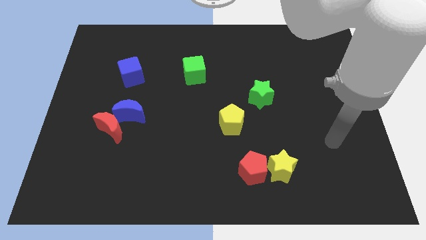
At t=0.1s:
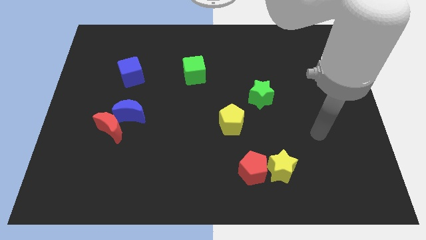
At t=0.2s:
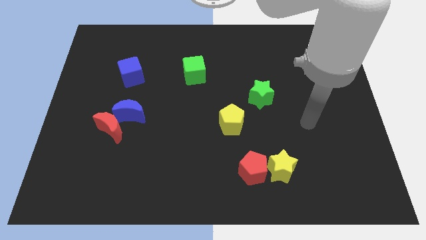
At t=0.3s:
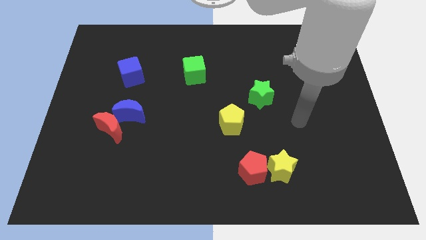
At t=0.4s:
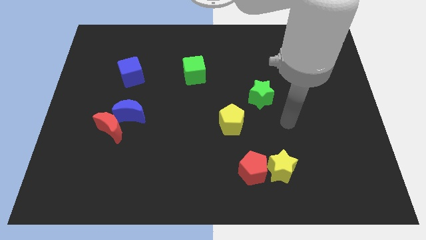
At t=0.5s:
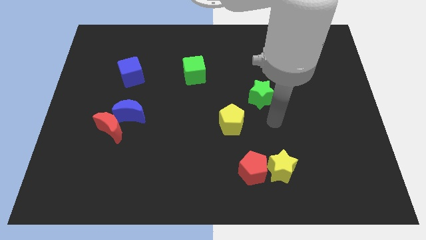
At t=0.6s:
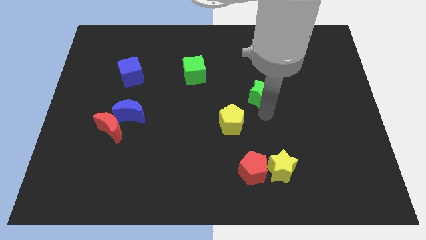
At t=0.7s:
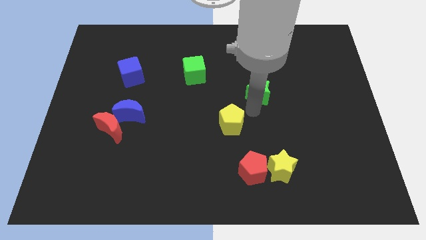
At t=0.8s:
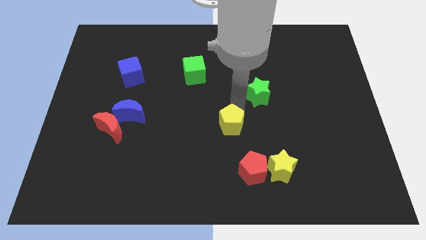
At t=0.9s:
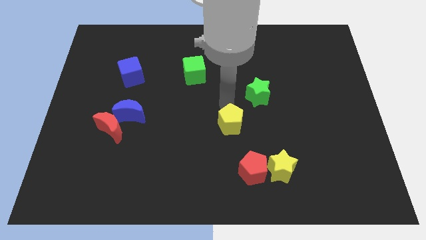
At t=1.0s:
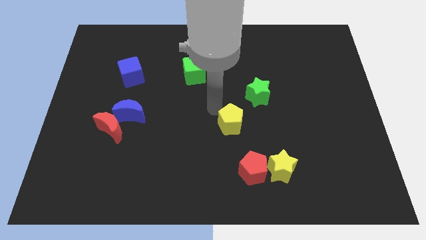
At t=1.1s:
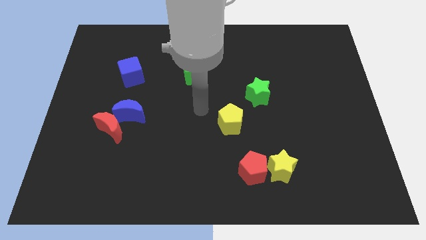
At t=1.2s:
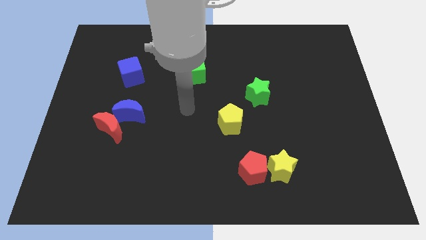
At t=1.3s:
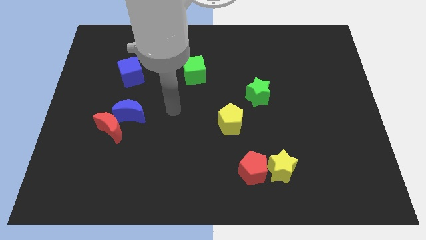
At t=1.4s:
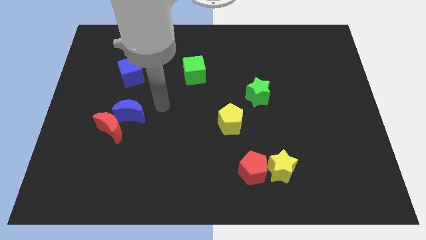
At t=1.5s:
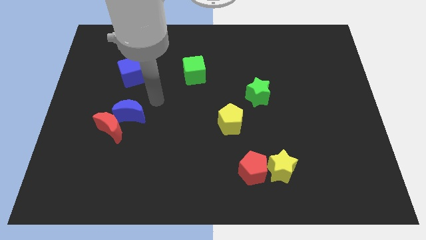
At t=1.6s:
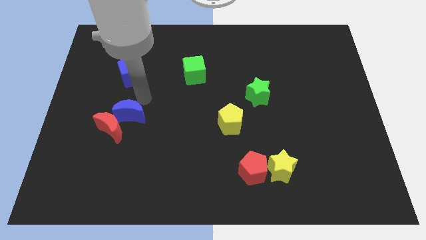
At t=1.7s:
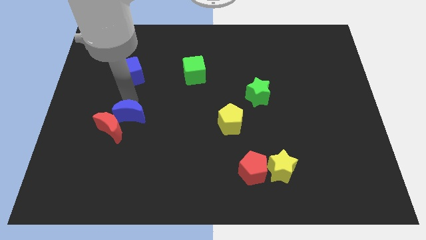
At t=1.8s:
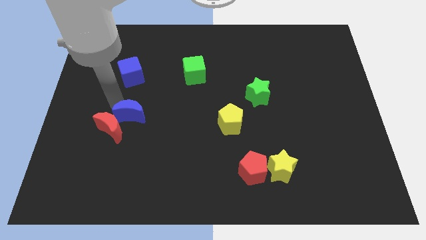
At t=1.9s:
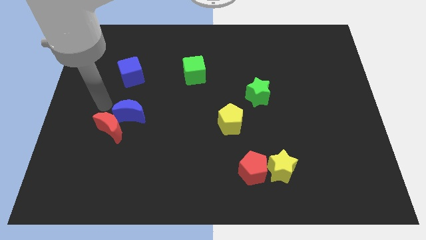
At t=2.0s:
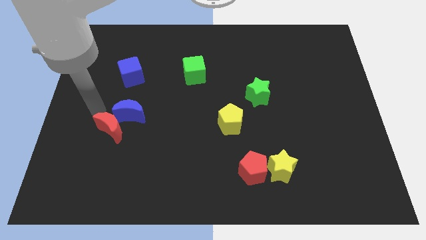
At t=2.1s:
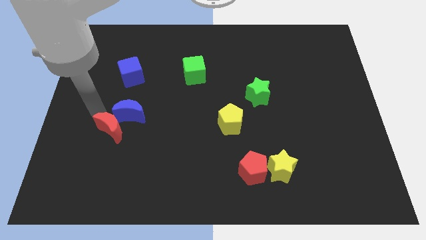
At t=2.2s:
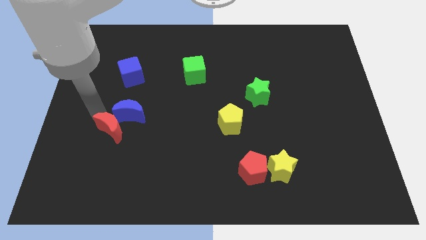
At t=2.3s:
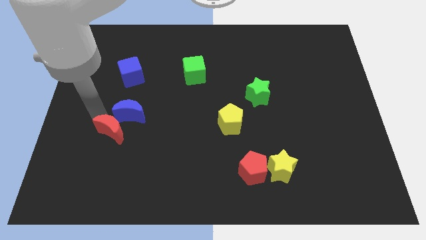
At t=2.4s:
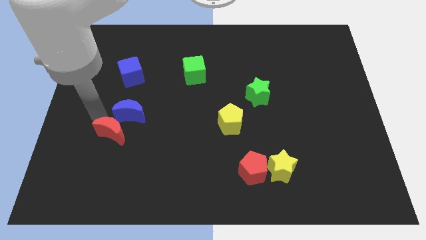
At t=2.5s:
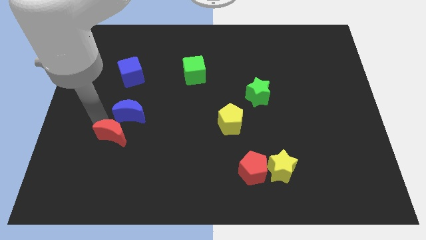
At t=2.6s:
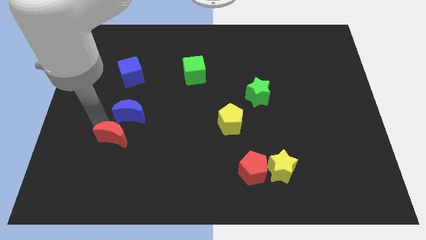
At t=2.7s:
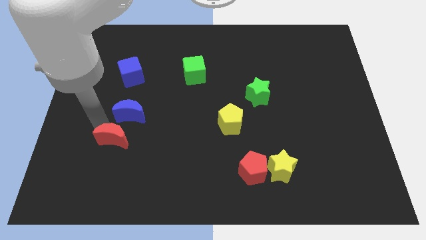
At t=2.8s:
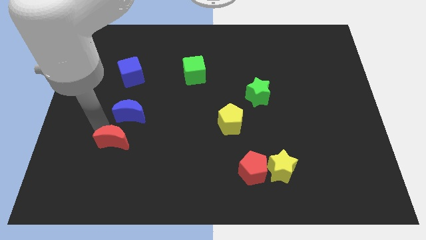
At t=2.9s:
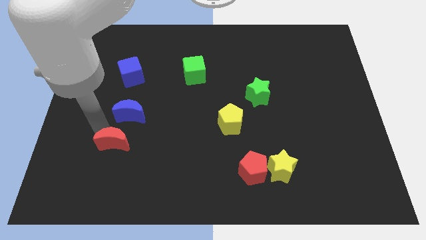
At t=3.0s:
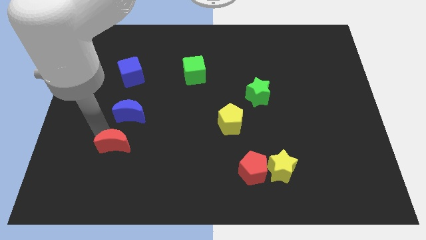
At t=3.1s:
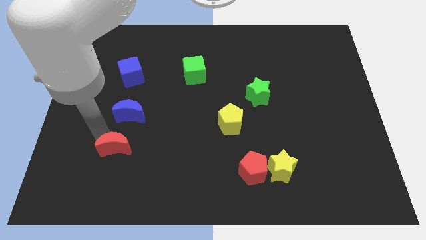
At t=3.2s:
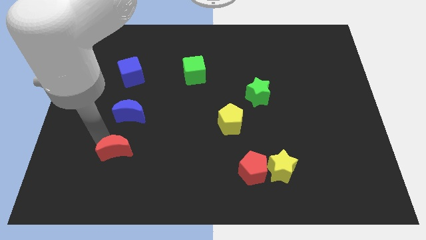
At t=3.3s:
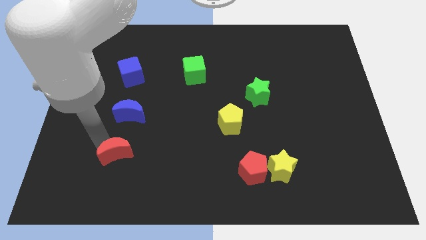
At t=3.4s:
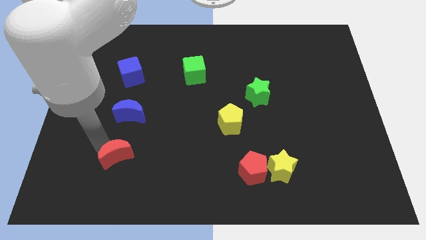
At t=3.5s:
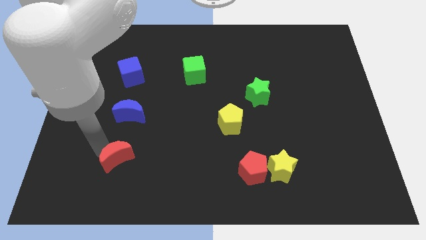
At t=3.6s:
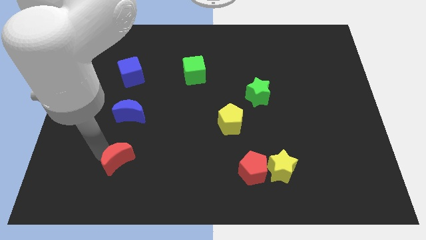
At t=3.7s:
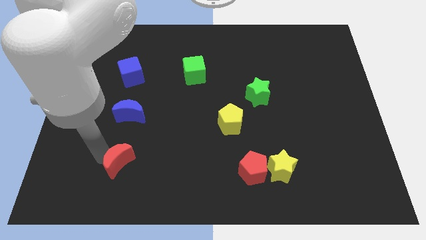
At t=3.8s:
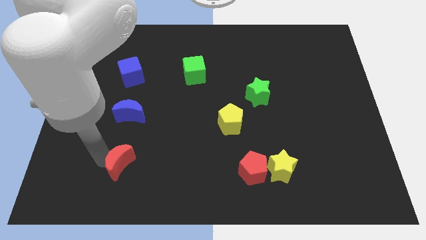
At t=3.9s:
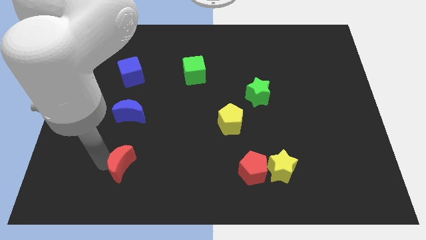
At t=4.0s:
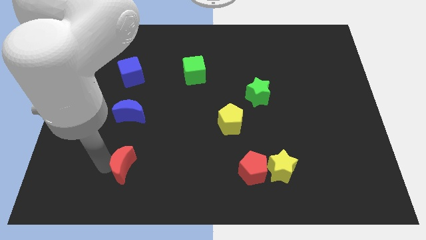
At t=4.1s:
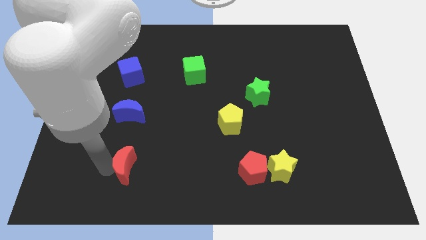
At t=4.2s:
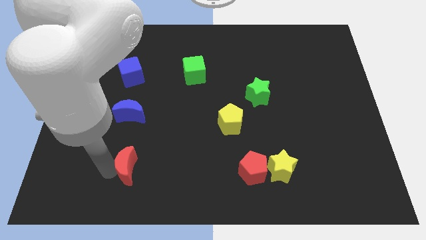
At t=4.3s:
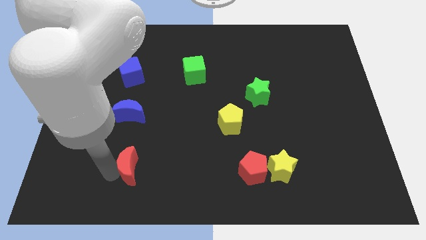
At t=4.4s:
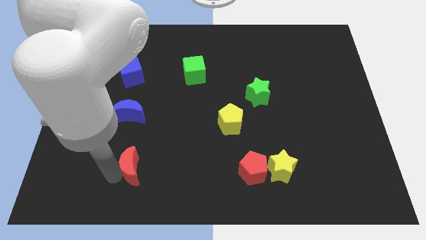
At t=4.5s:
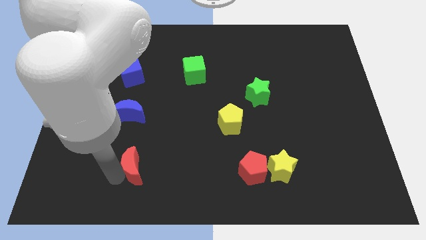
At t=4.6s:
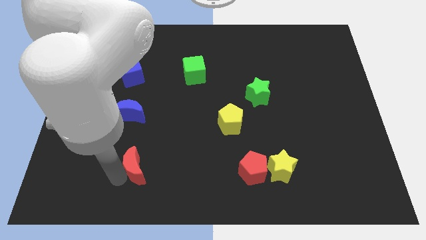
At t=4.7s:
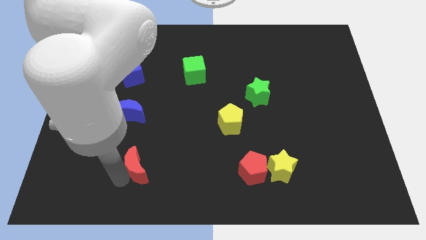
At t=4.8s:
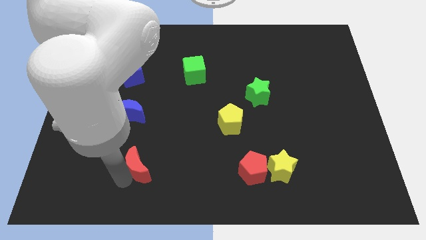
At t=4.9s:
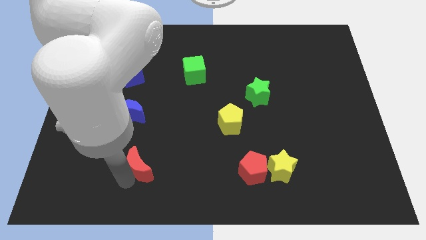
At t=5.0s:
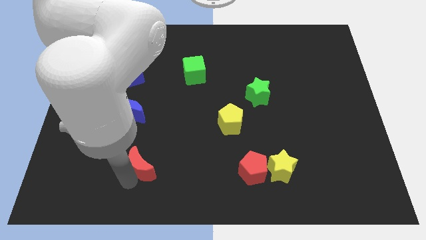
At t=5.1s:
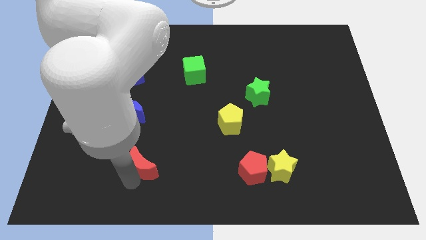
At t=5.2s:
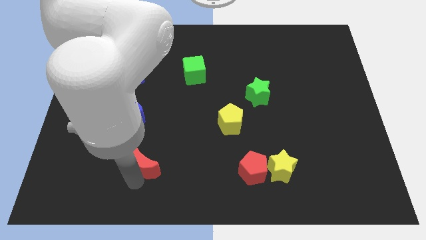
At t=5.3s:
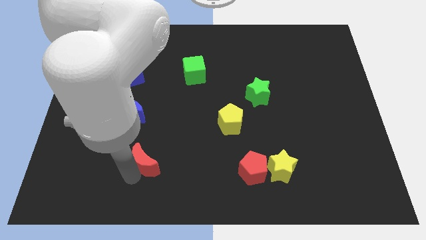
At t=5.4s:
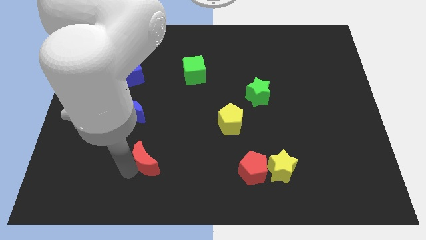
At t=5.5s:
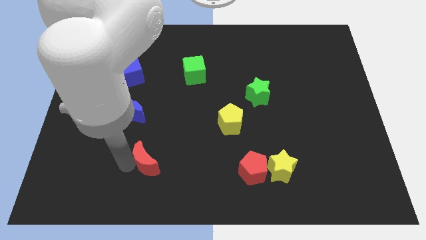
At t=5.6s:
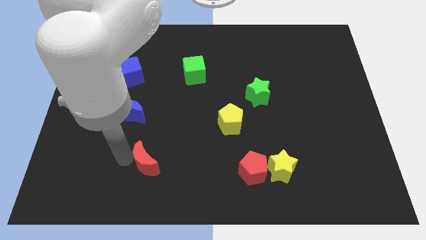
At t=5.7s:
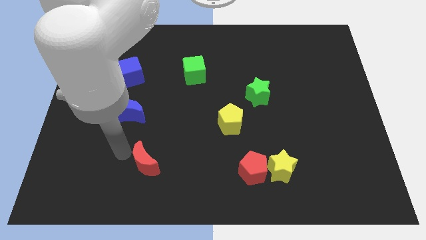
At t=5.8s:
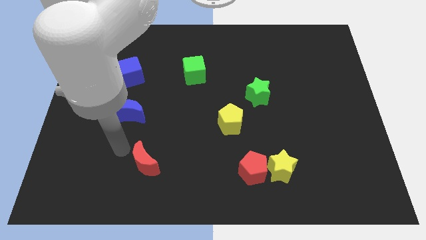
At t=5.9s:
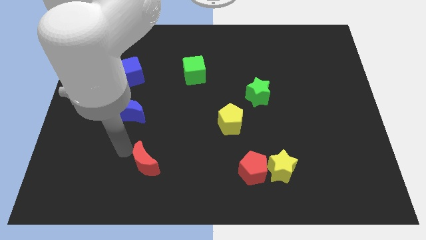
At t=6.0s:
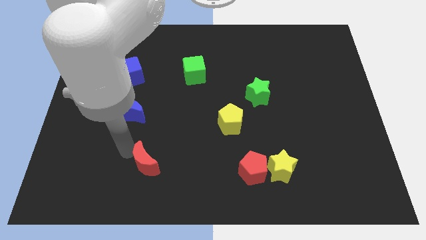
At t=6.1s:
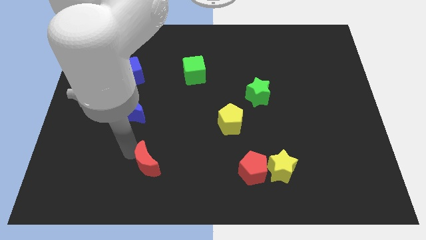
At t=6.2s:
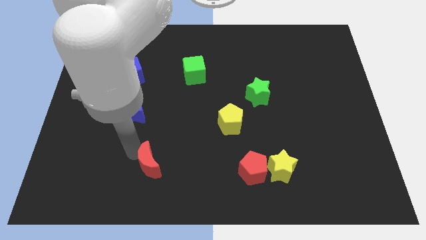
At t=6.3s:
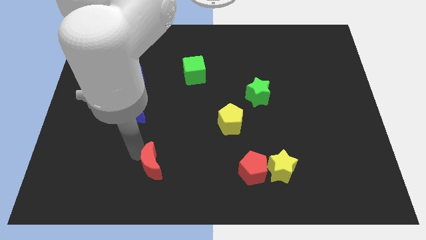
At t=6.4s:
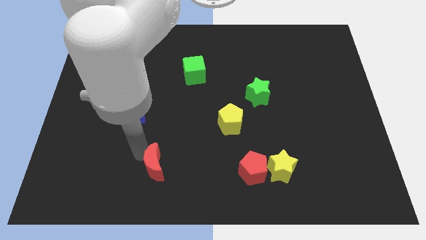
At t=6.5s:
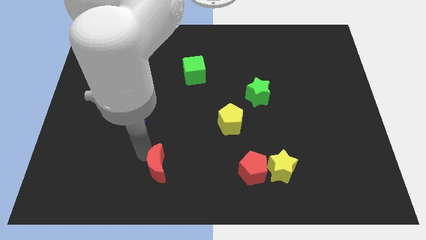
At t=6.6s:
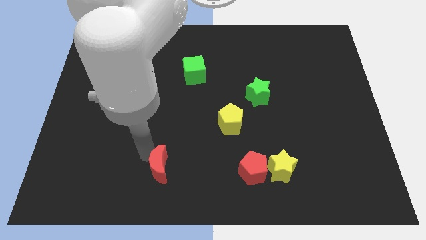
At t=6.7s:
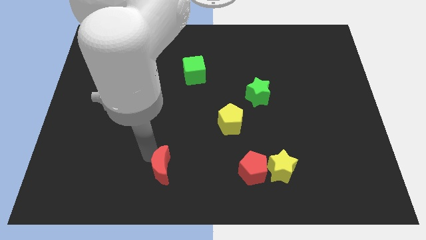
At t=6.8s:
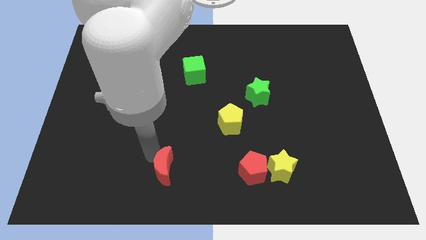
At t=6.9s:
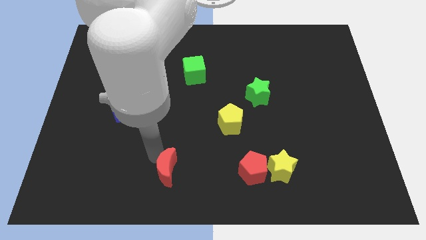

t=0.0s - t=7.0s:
put the red moon to the bottom side
